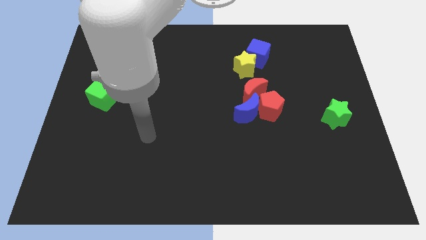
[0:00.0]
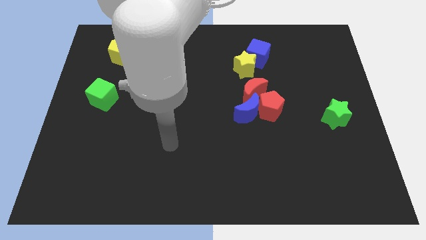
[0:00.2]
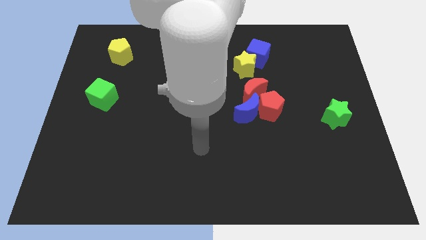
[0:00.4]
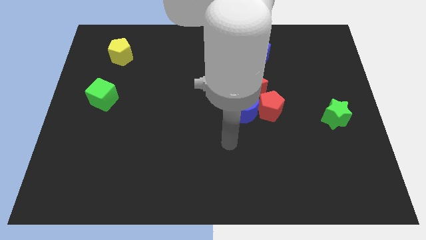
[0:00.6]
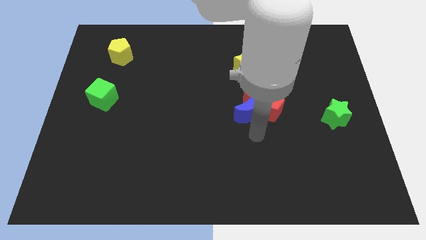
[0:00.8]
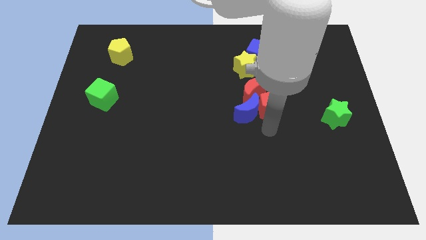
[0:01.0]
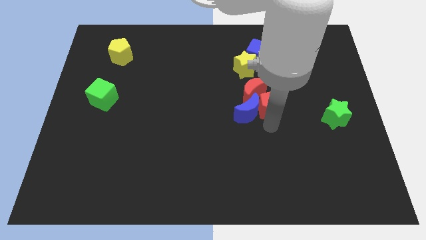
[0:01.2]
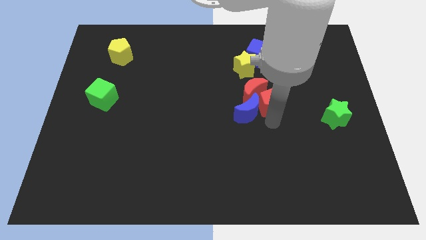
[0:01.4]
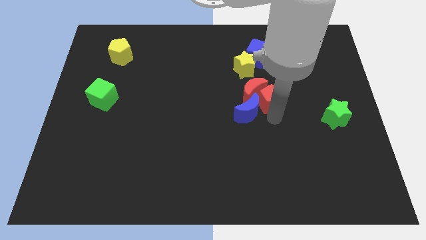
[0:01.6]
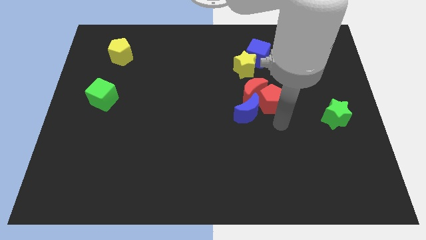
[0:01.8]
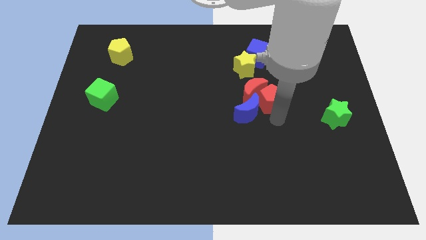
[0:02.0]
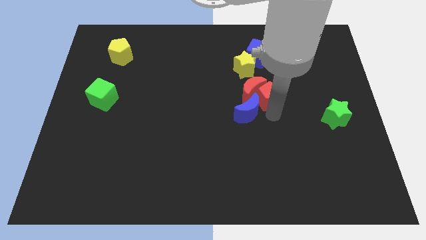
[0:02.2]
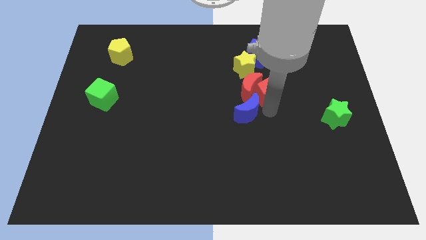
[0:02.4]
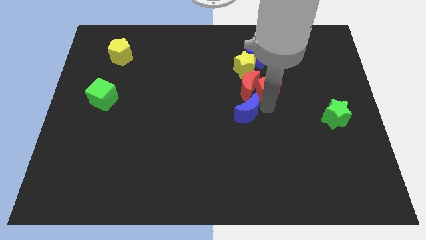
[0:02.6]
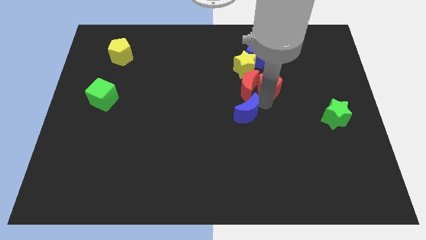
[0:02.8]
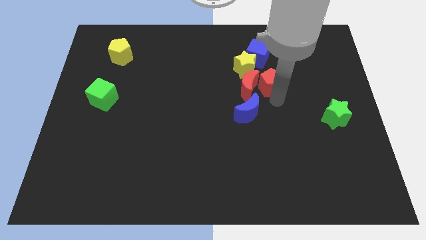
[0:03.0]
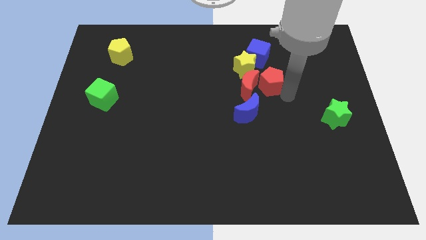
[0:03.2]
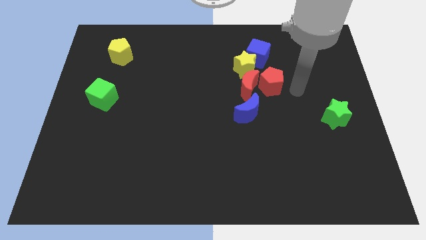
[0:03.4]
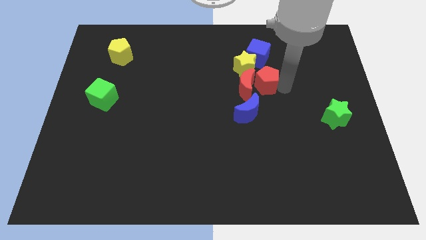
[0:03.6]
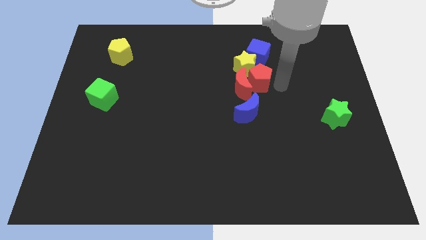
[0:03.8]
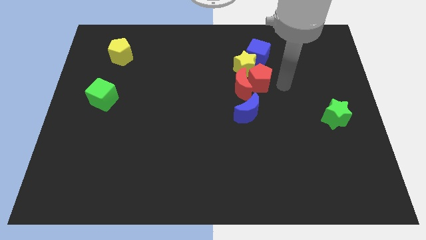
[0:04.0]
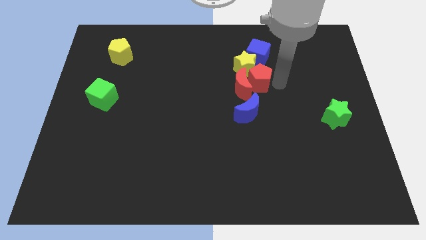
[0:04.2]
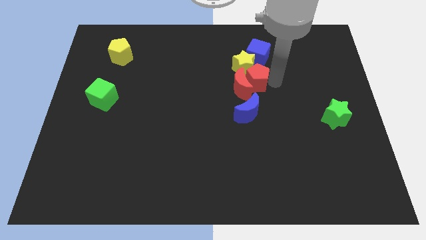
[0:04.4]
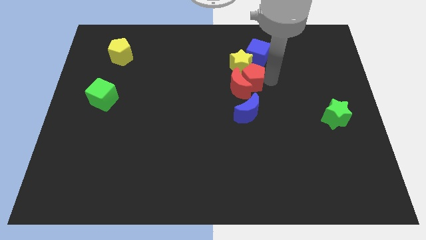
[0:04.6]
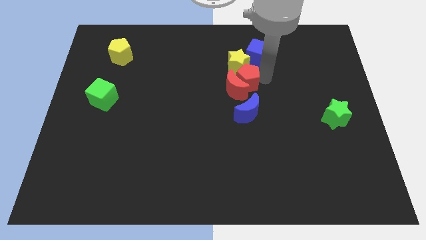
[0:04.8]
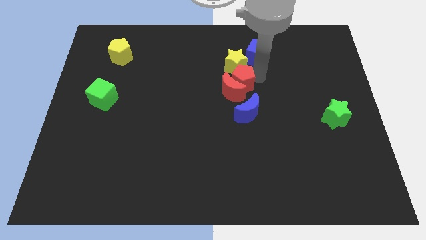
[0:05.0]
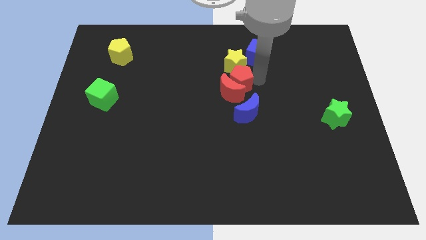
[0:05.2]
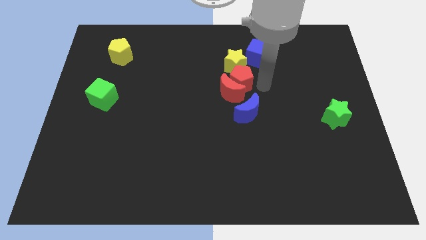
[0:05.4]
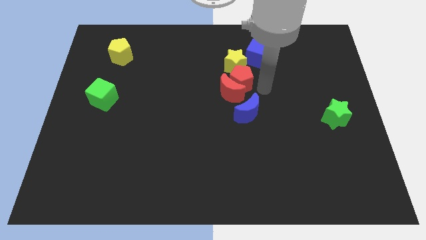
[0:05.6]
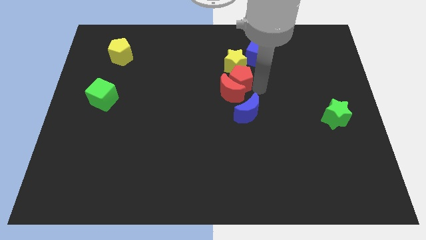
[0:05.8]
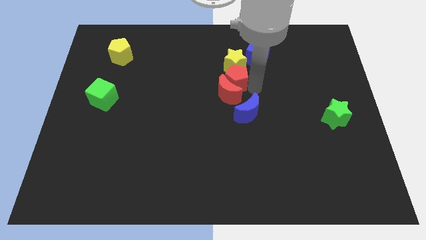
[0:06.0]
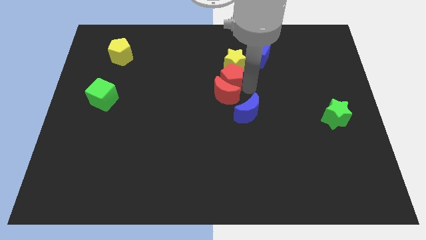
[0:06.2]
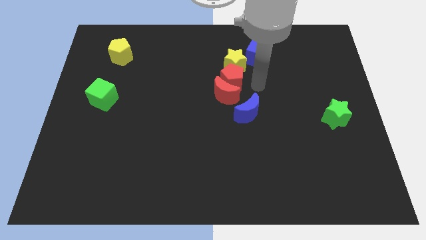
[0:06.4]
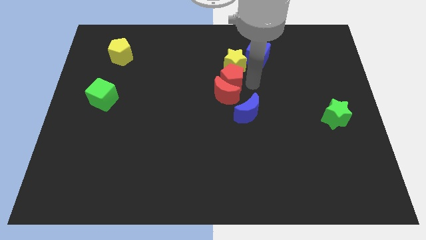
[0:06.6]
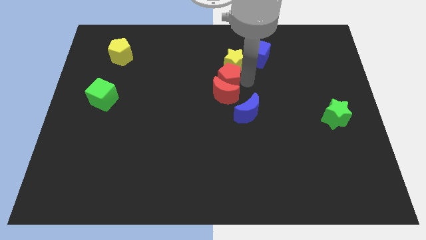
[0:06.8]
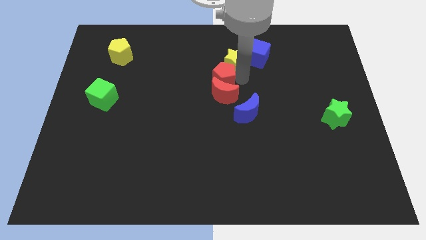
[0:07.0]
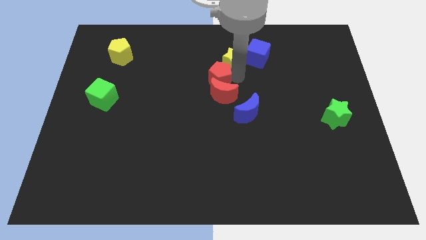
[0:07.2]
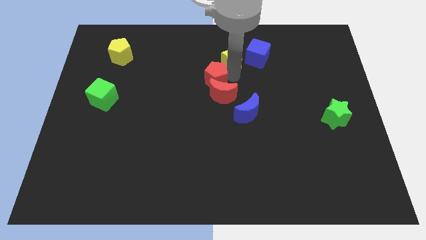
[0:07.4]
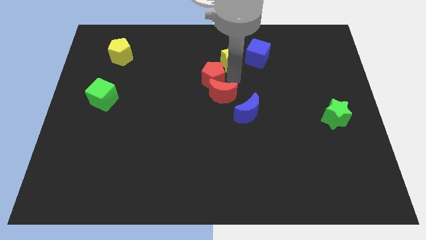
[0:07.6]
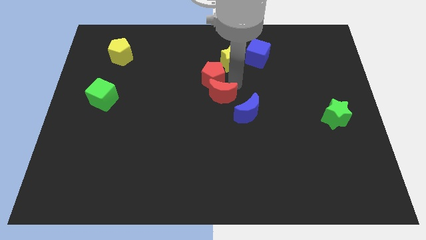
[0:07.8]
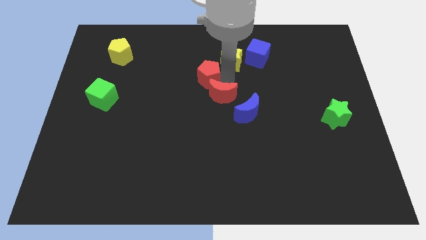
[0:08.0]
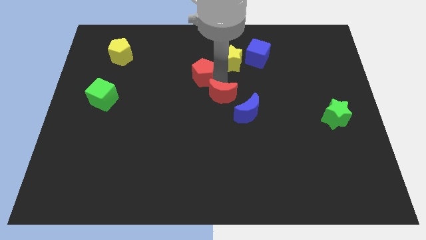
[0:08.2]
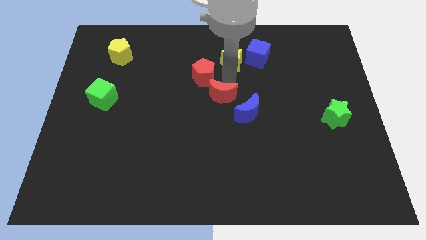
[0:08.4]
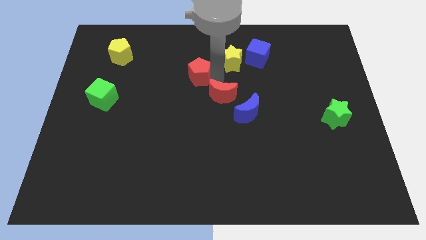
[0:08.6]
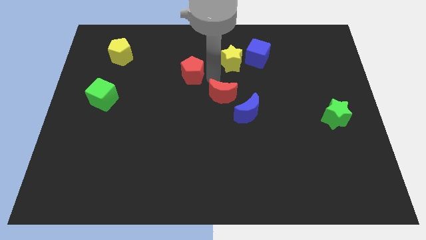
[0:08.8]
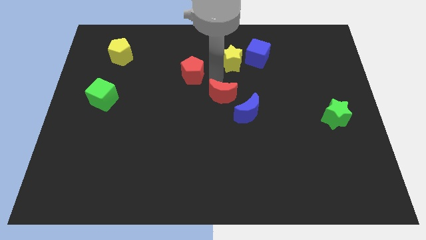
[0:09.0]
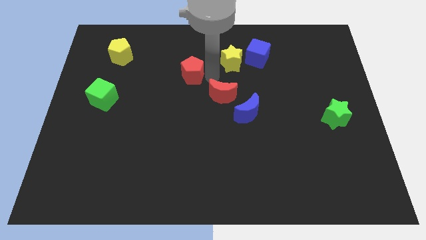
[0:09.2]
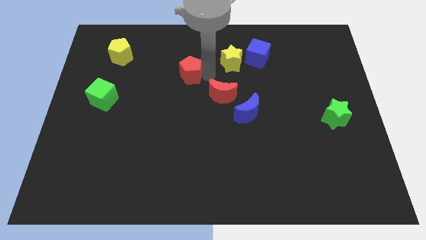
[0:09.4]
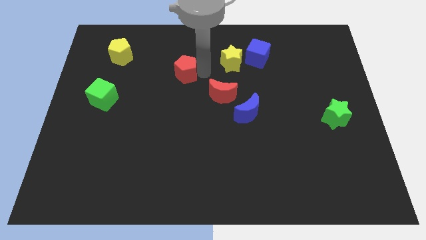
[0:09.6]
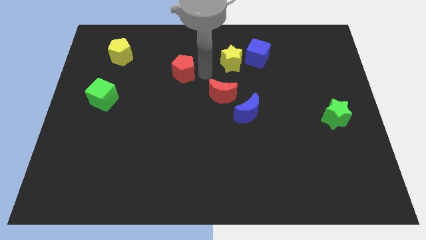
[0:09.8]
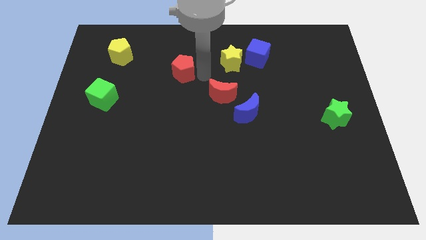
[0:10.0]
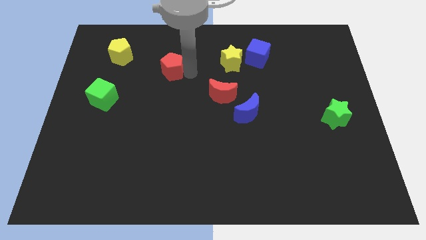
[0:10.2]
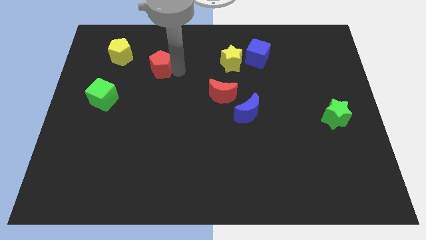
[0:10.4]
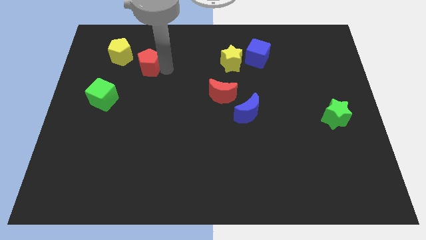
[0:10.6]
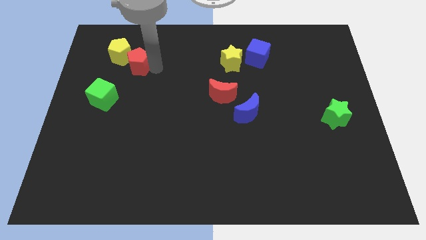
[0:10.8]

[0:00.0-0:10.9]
slide the red pentagon next to the yellow pentagon

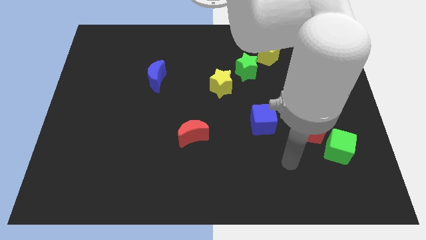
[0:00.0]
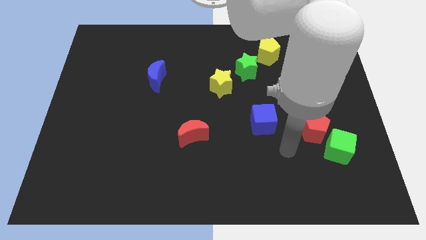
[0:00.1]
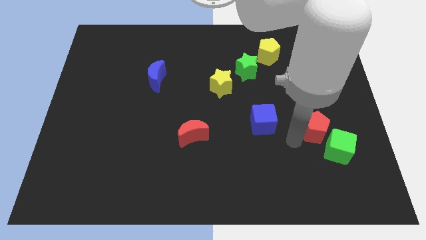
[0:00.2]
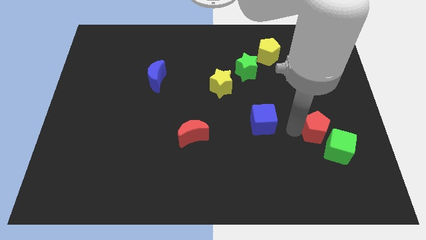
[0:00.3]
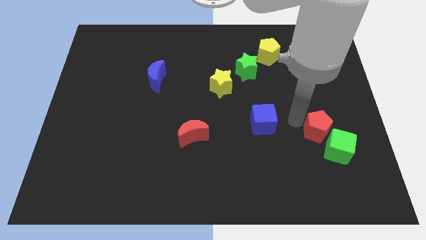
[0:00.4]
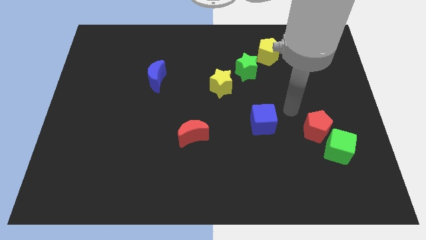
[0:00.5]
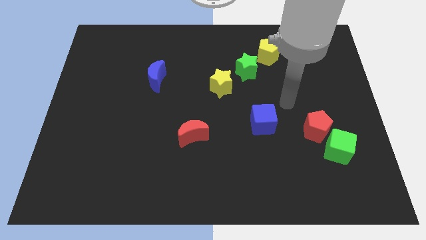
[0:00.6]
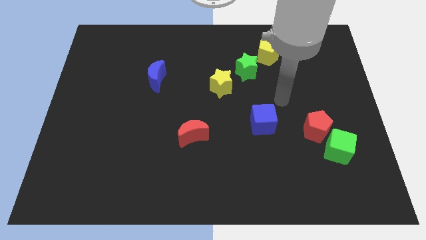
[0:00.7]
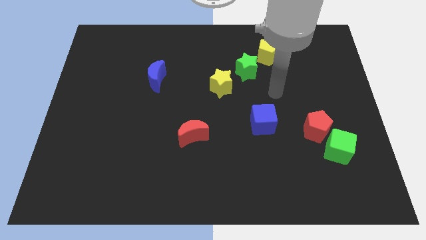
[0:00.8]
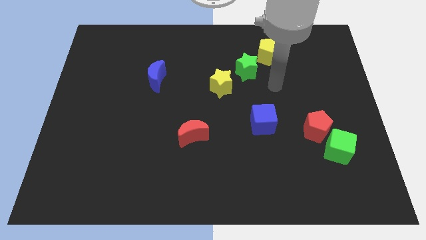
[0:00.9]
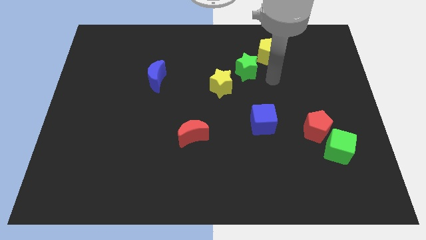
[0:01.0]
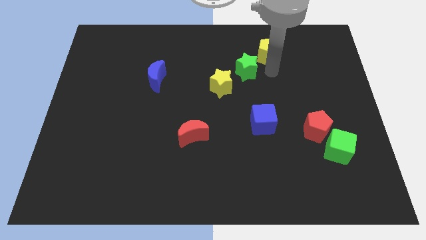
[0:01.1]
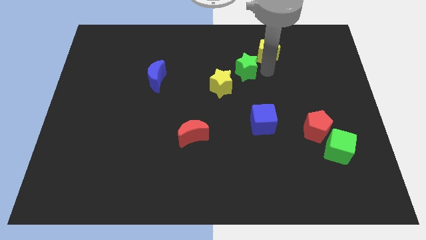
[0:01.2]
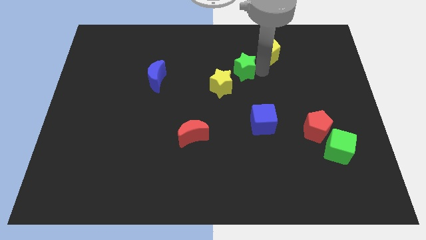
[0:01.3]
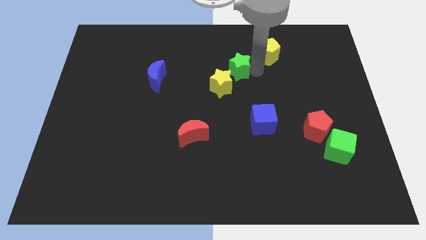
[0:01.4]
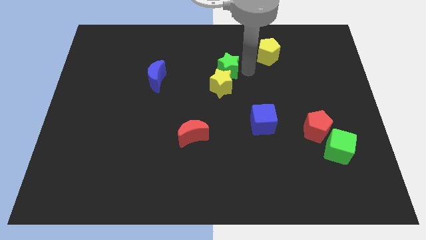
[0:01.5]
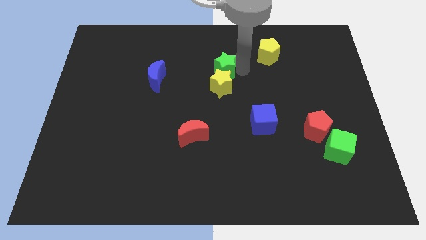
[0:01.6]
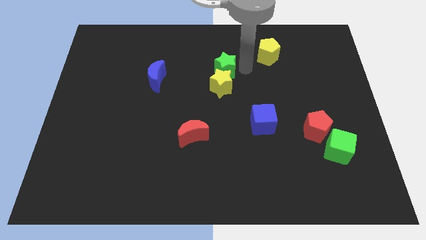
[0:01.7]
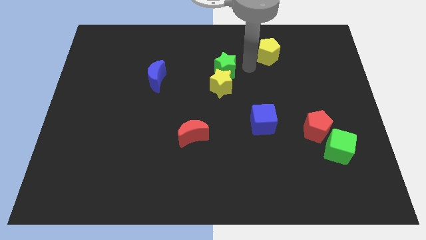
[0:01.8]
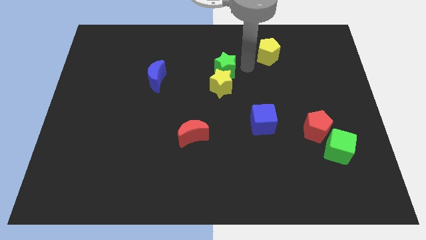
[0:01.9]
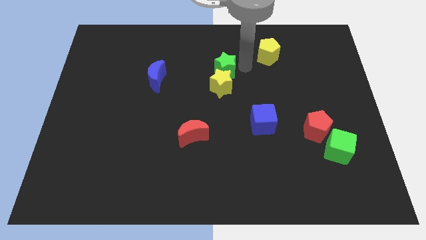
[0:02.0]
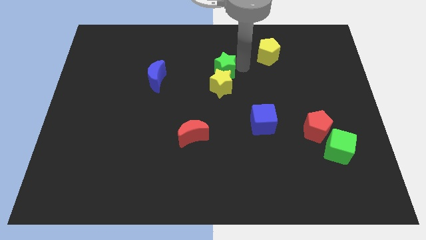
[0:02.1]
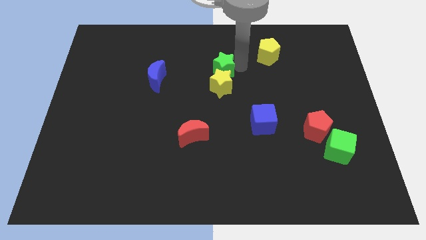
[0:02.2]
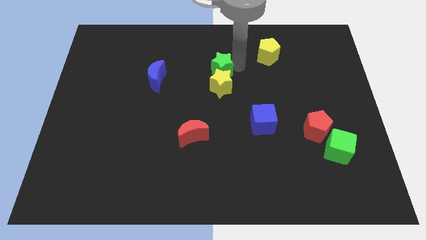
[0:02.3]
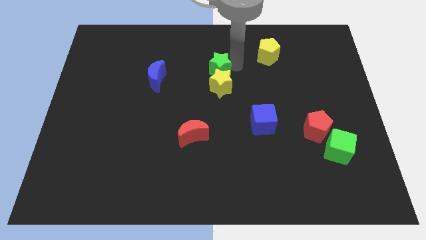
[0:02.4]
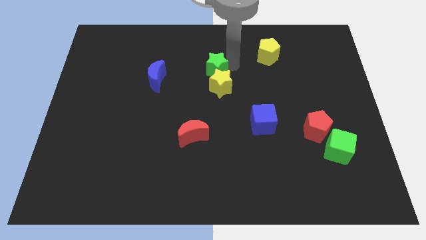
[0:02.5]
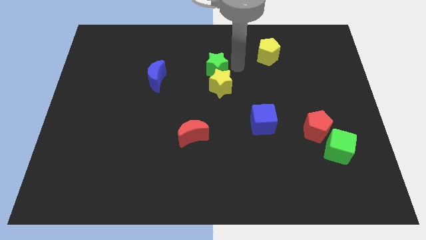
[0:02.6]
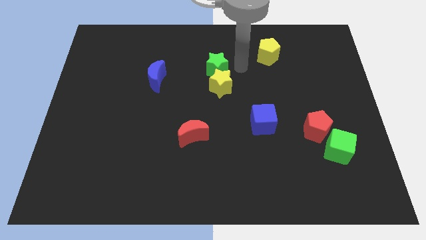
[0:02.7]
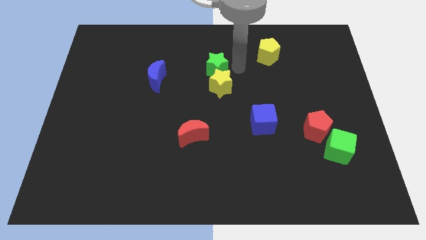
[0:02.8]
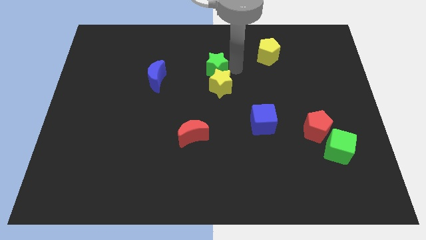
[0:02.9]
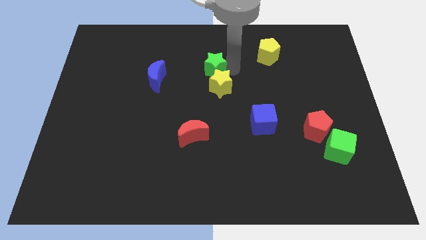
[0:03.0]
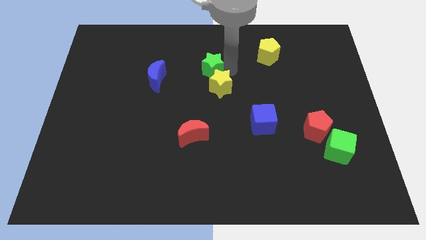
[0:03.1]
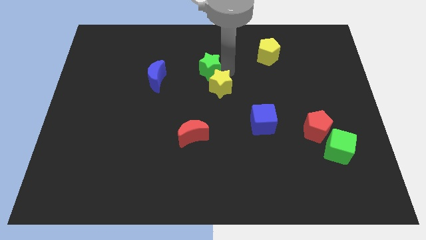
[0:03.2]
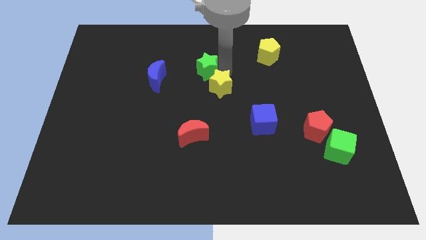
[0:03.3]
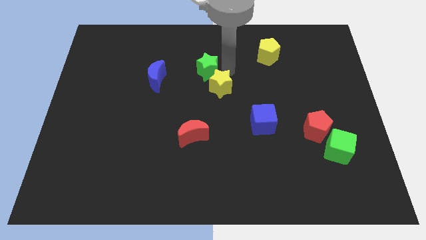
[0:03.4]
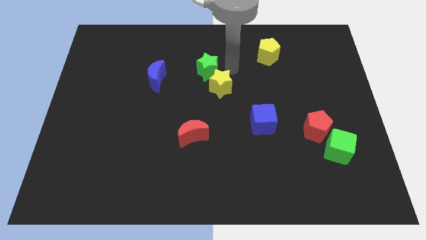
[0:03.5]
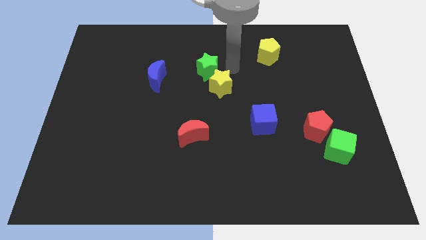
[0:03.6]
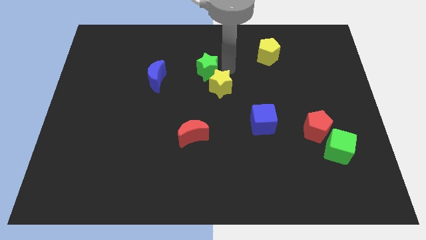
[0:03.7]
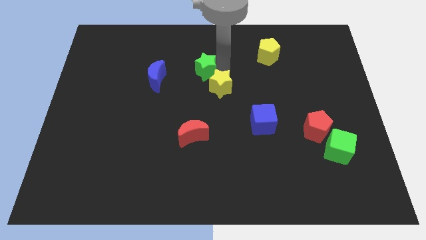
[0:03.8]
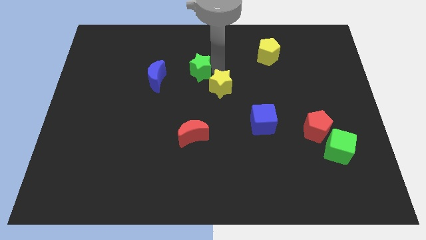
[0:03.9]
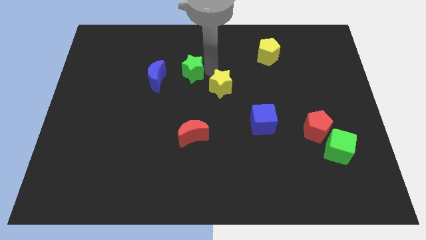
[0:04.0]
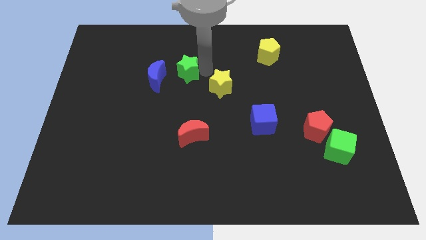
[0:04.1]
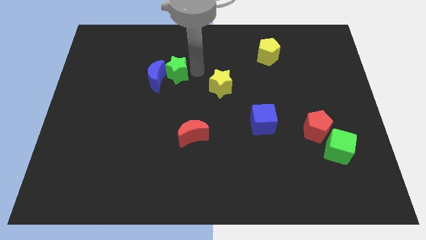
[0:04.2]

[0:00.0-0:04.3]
slide the green star close to the blue moon
